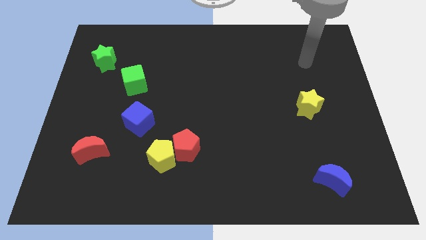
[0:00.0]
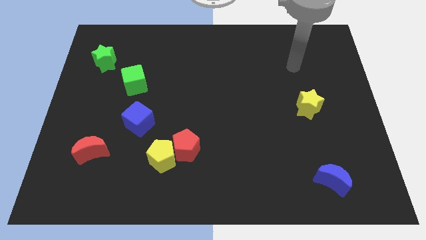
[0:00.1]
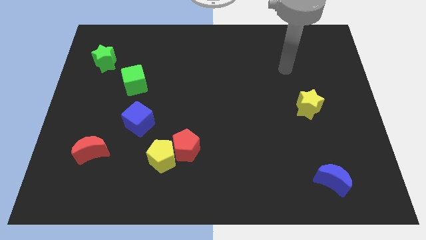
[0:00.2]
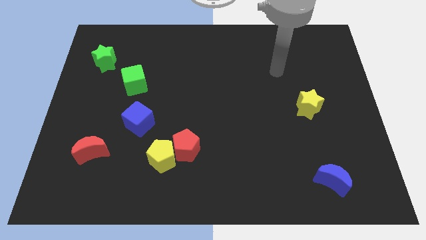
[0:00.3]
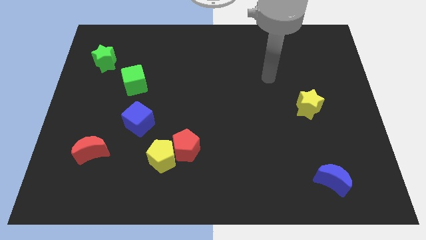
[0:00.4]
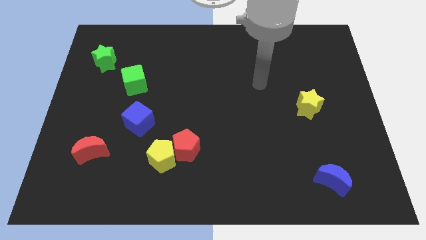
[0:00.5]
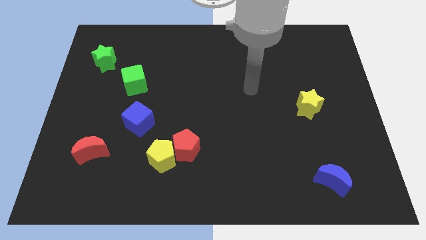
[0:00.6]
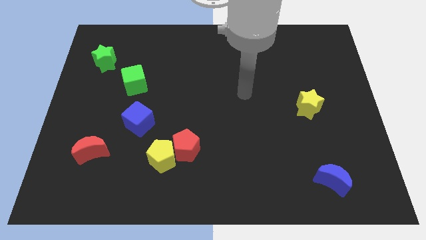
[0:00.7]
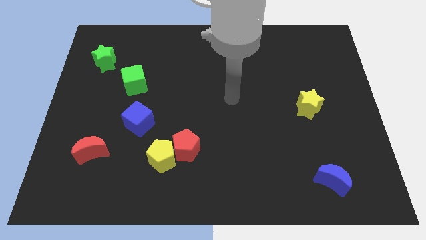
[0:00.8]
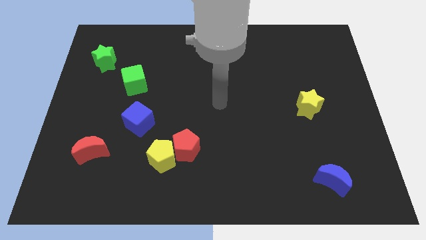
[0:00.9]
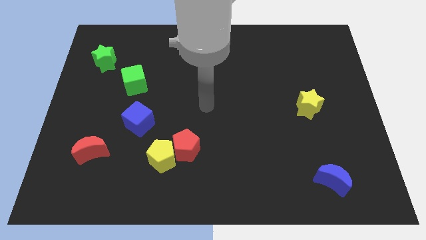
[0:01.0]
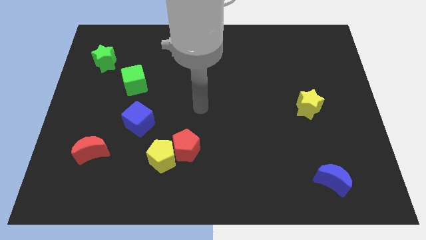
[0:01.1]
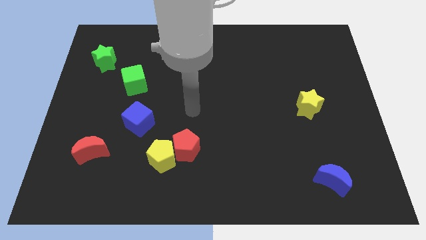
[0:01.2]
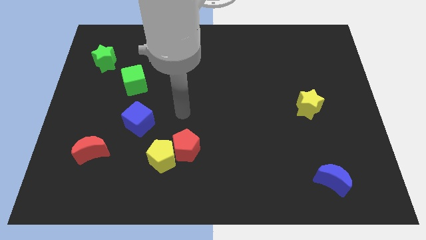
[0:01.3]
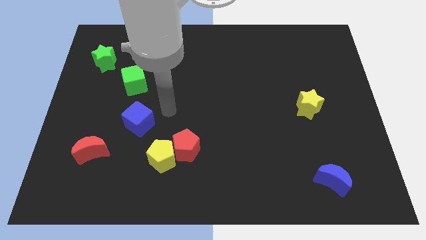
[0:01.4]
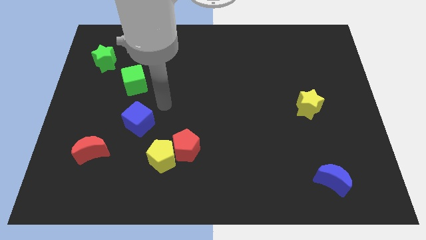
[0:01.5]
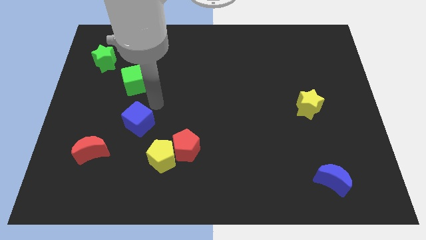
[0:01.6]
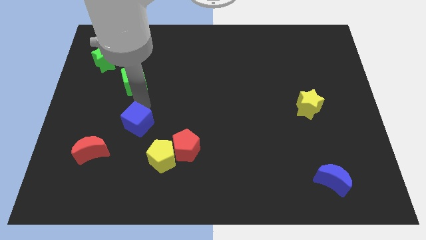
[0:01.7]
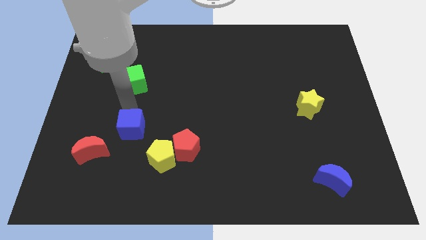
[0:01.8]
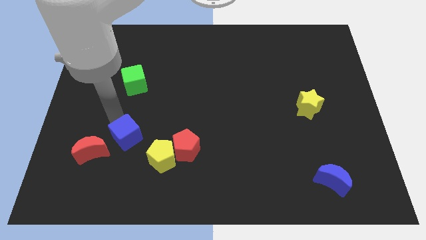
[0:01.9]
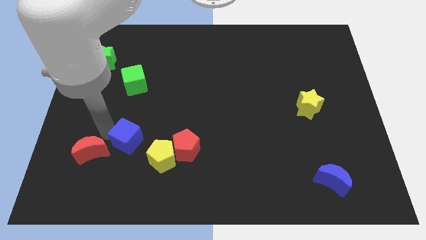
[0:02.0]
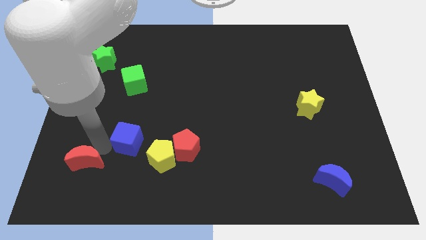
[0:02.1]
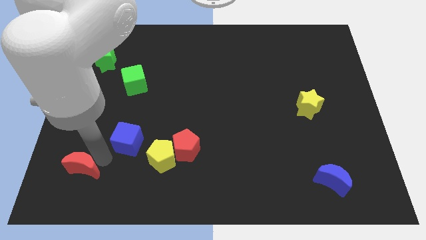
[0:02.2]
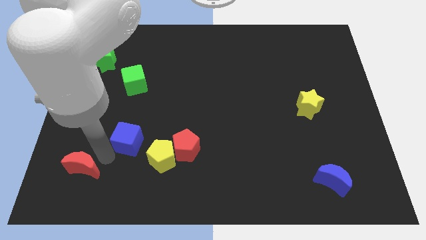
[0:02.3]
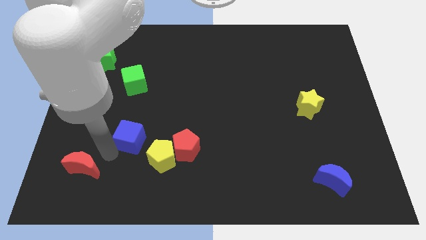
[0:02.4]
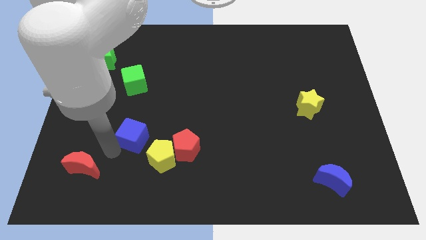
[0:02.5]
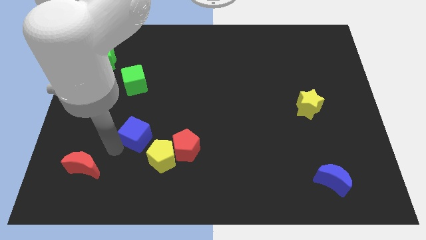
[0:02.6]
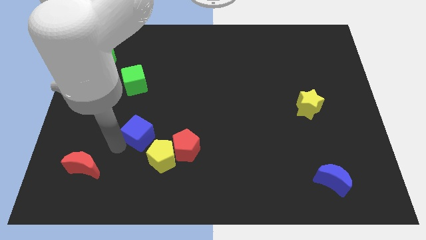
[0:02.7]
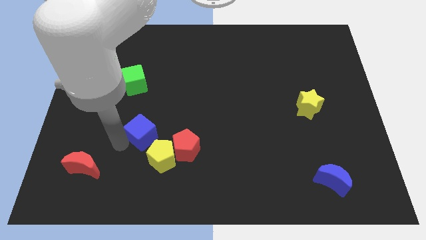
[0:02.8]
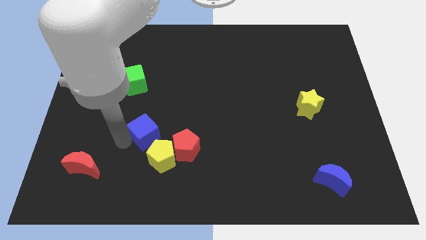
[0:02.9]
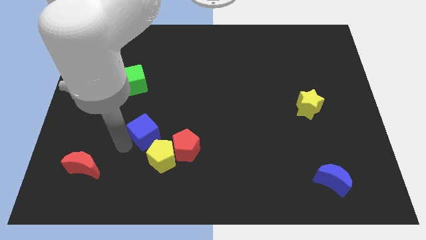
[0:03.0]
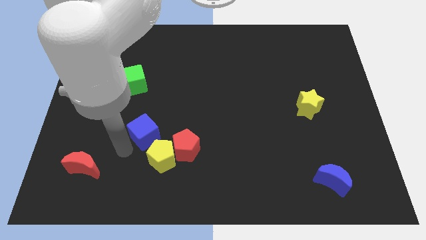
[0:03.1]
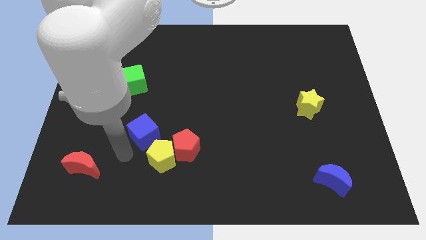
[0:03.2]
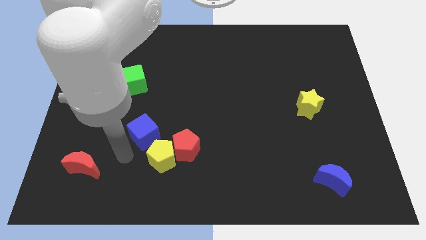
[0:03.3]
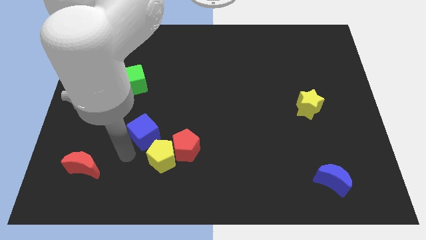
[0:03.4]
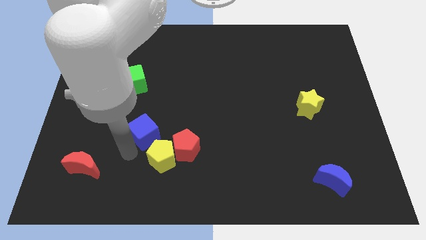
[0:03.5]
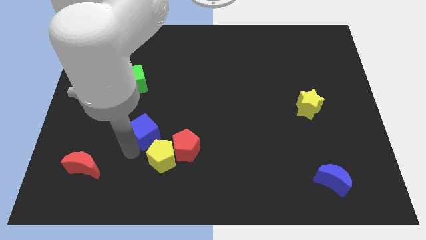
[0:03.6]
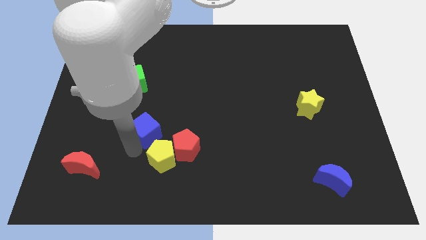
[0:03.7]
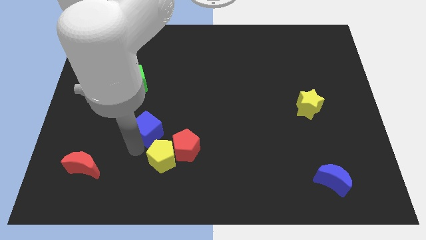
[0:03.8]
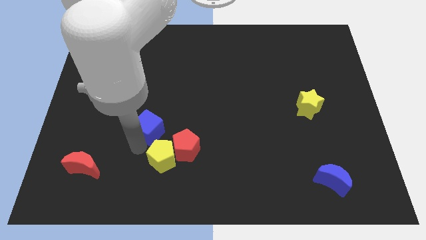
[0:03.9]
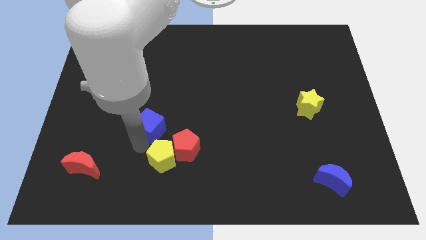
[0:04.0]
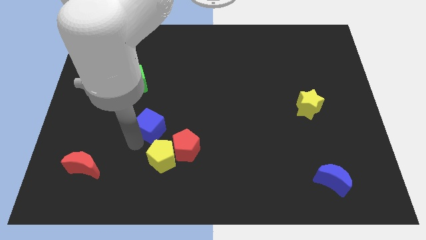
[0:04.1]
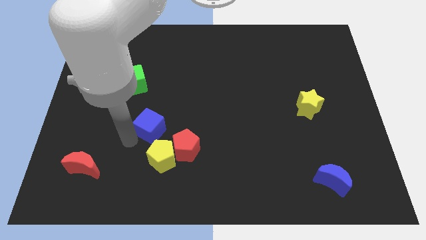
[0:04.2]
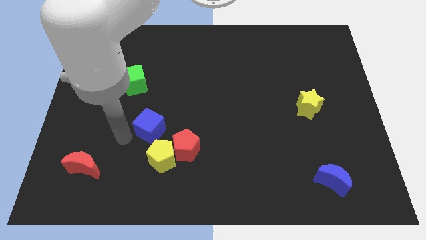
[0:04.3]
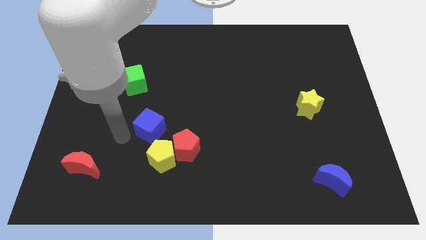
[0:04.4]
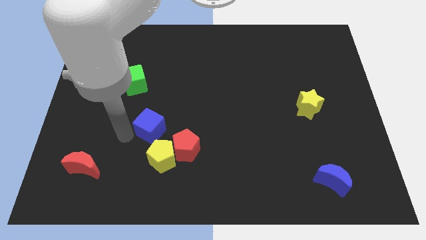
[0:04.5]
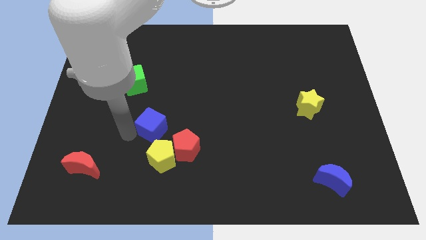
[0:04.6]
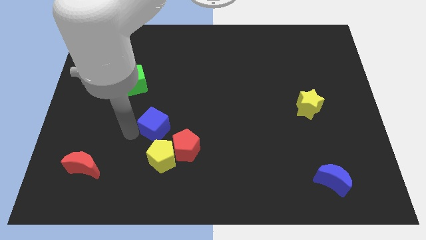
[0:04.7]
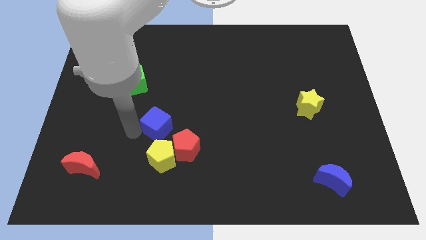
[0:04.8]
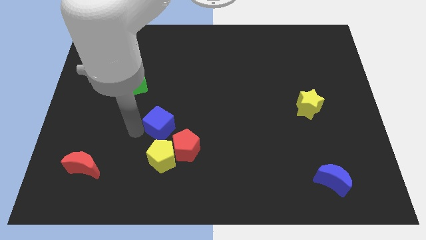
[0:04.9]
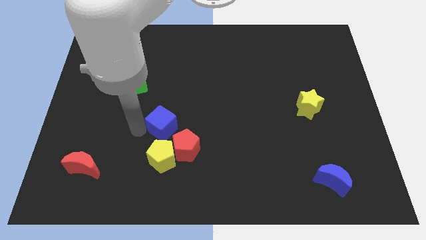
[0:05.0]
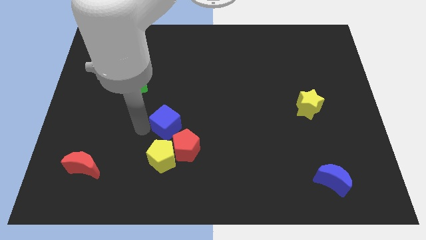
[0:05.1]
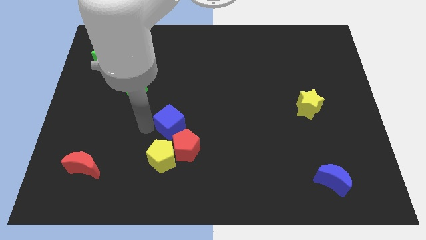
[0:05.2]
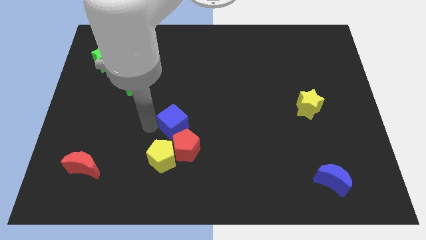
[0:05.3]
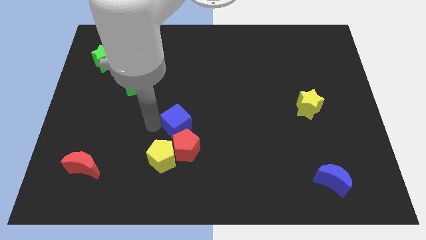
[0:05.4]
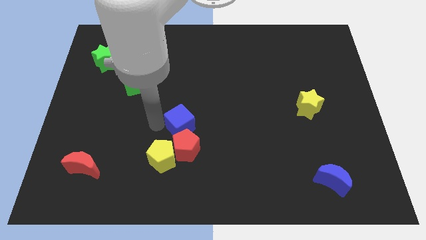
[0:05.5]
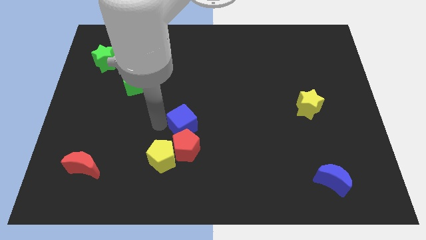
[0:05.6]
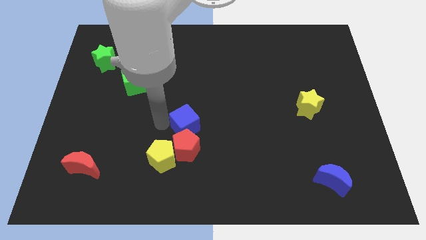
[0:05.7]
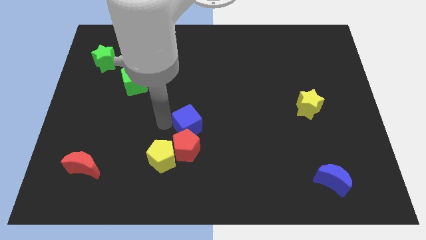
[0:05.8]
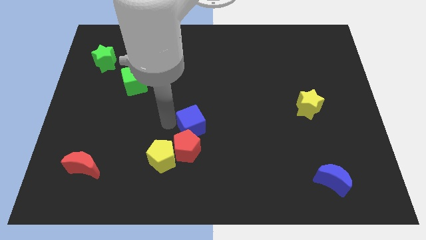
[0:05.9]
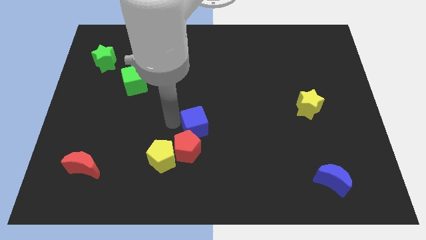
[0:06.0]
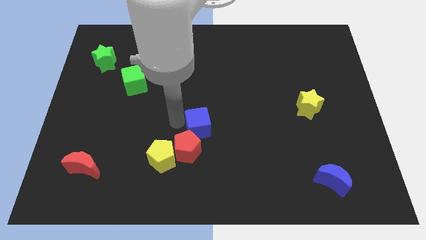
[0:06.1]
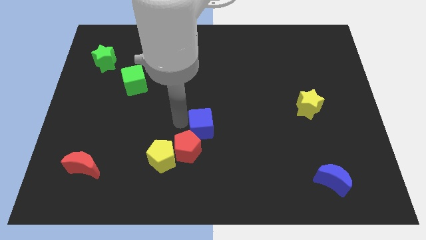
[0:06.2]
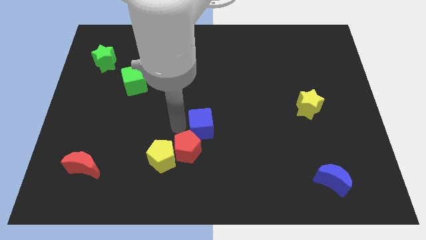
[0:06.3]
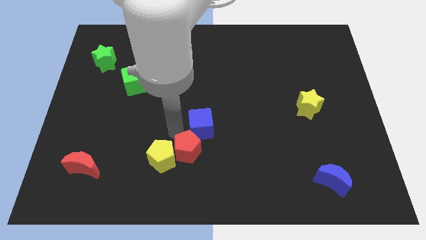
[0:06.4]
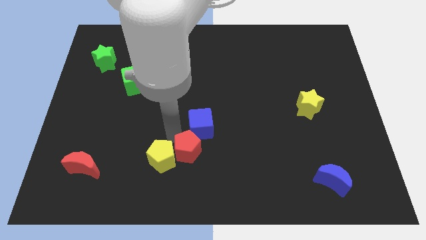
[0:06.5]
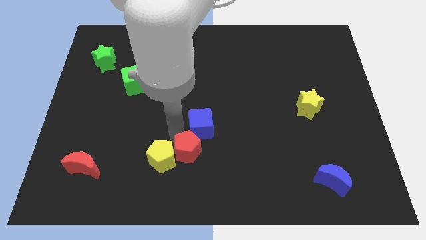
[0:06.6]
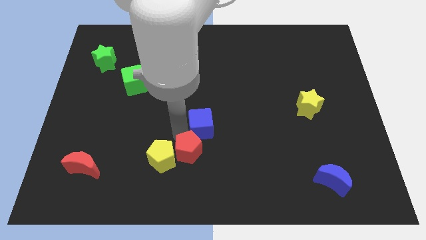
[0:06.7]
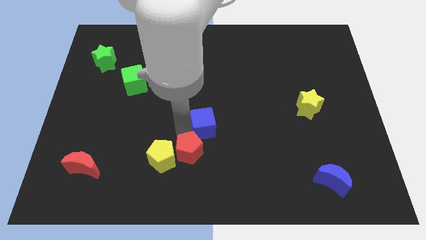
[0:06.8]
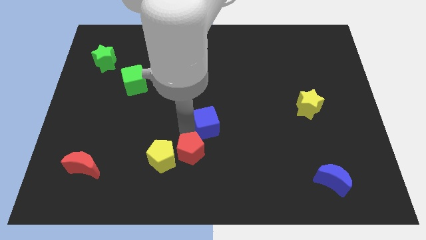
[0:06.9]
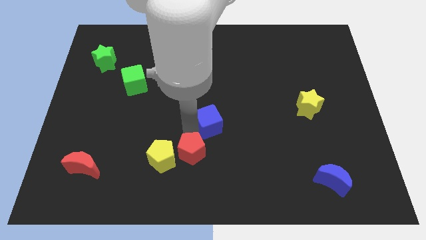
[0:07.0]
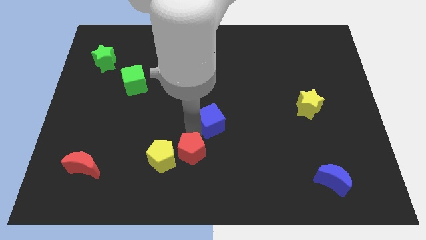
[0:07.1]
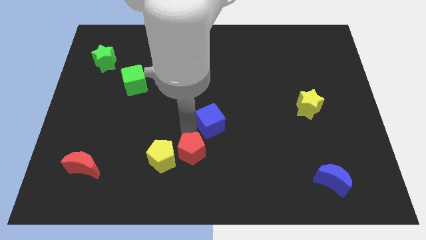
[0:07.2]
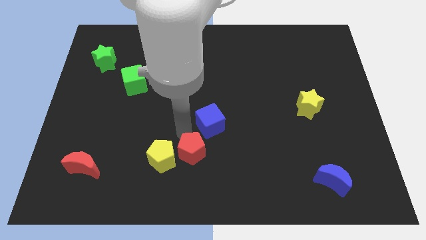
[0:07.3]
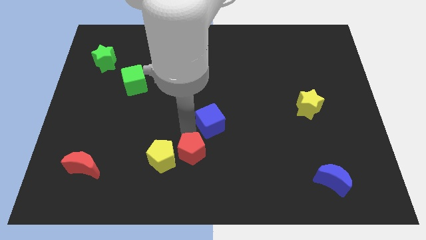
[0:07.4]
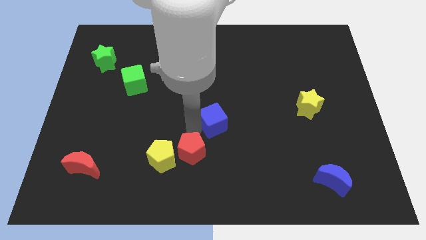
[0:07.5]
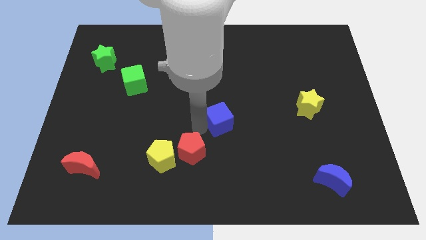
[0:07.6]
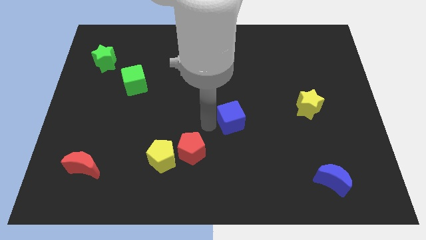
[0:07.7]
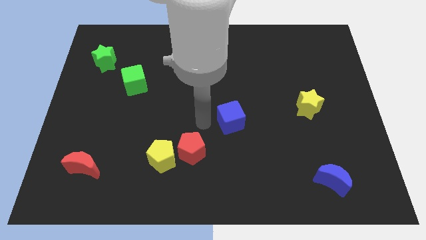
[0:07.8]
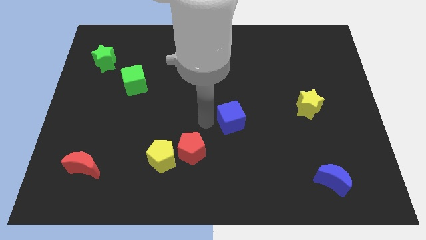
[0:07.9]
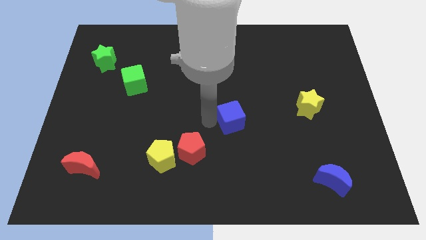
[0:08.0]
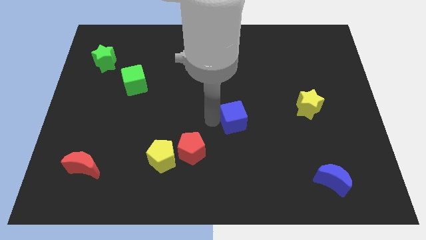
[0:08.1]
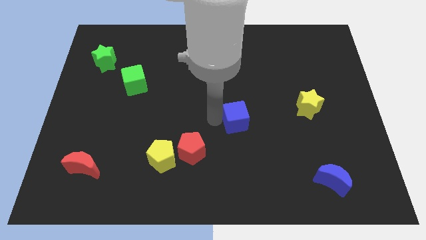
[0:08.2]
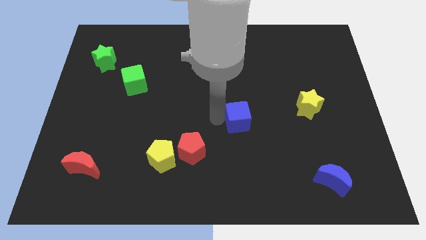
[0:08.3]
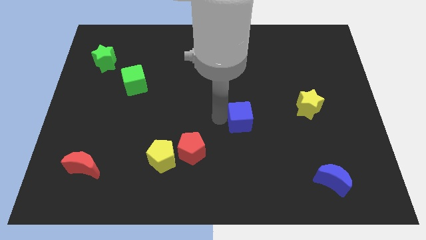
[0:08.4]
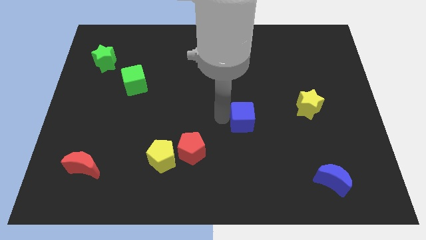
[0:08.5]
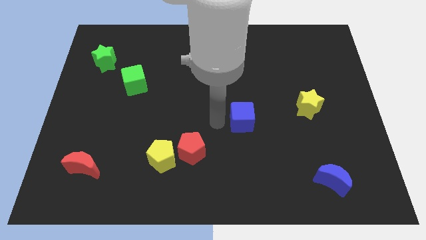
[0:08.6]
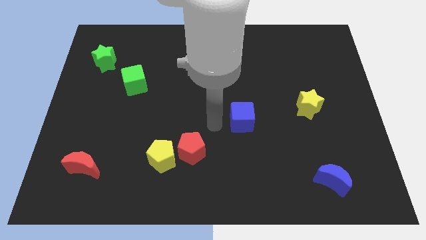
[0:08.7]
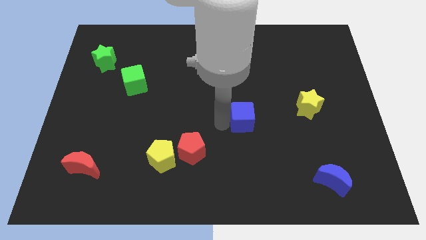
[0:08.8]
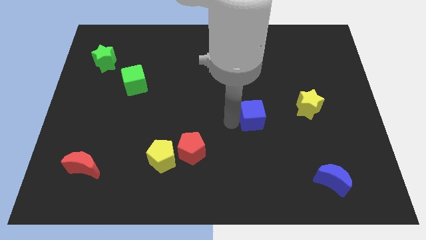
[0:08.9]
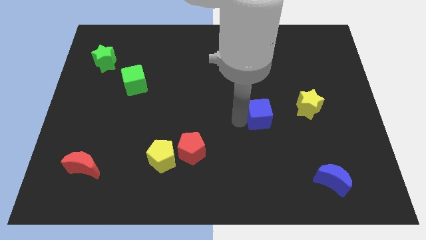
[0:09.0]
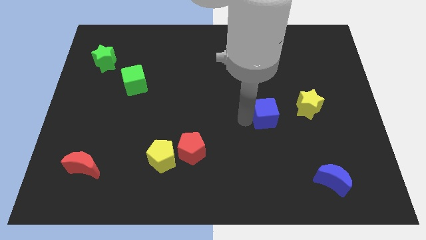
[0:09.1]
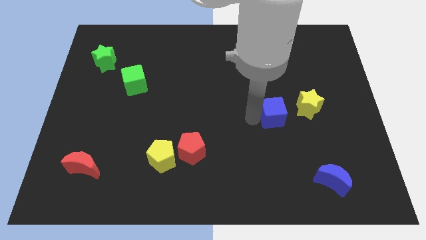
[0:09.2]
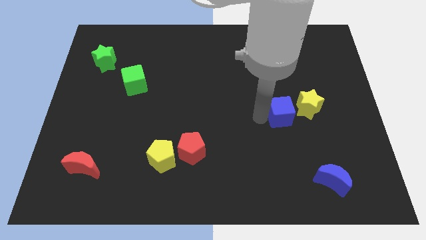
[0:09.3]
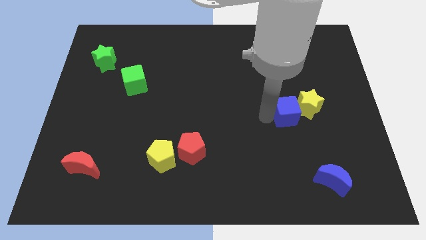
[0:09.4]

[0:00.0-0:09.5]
slide the blue cube to the yellow star
